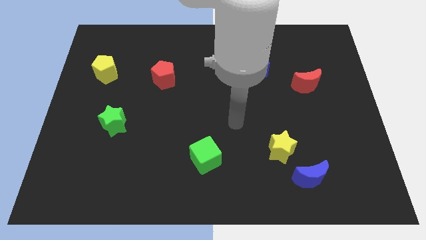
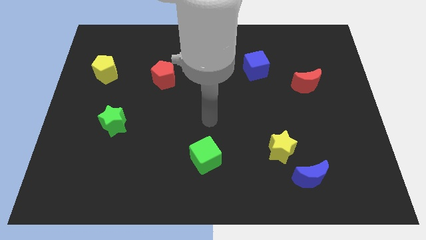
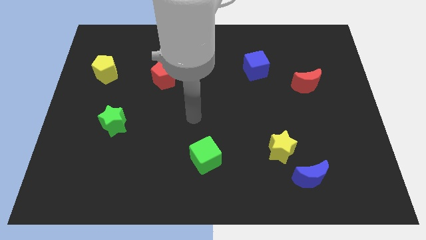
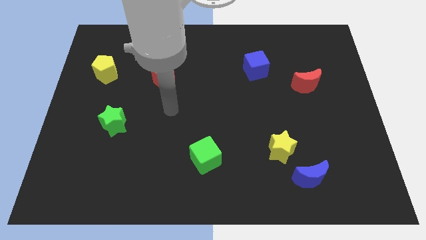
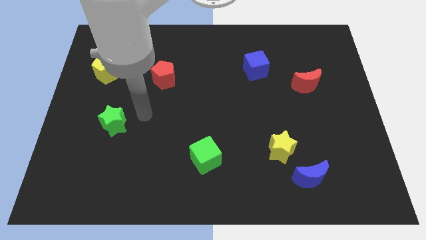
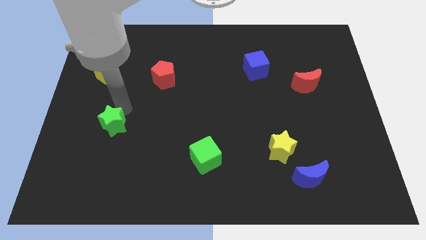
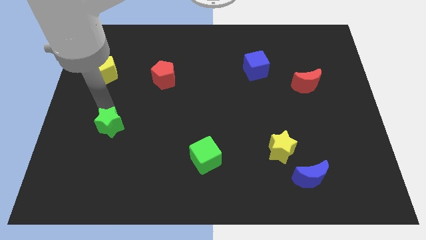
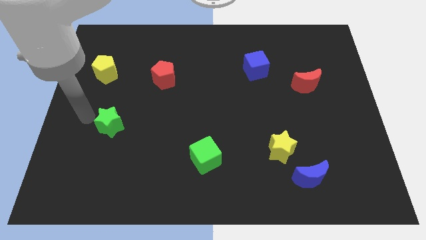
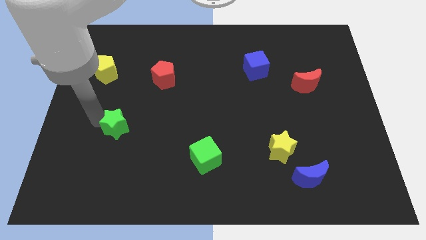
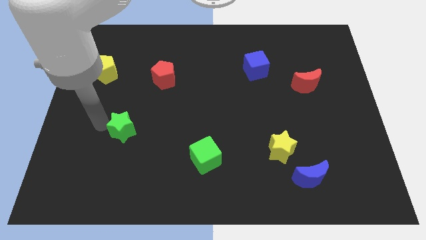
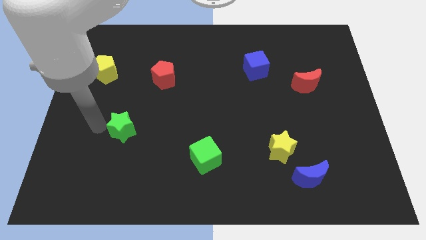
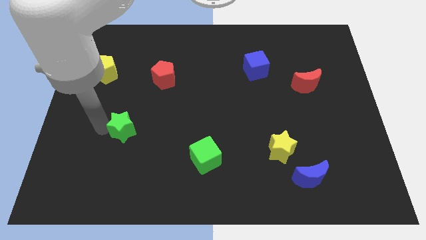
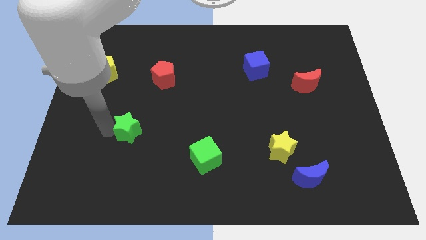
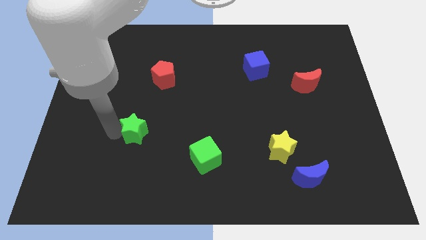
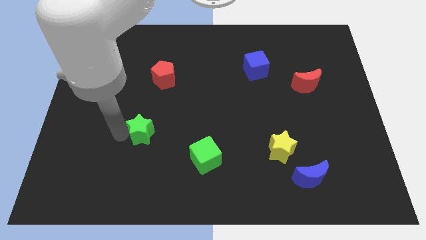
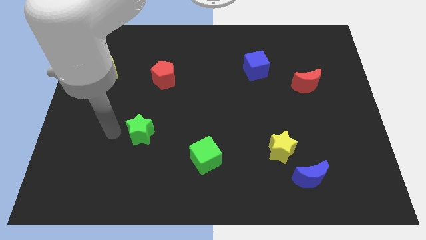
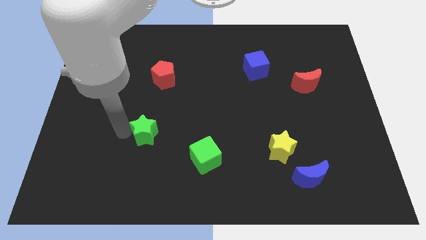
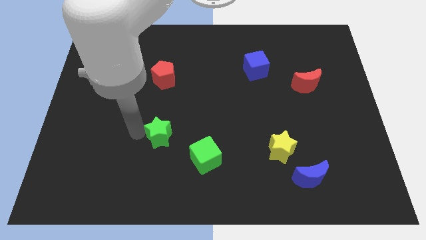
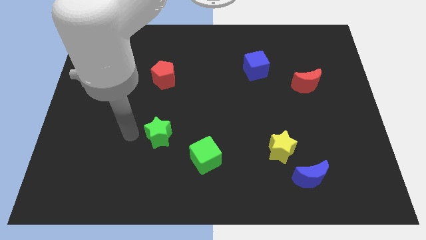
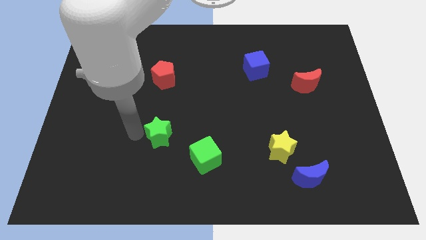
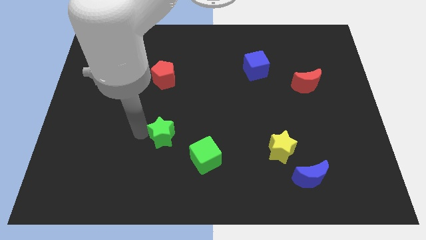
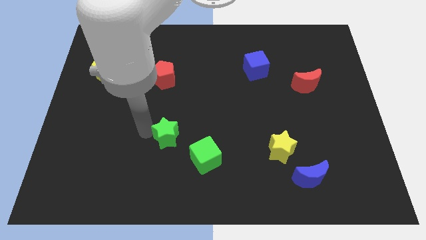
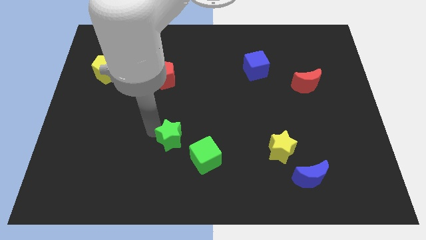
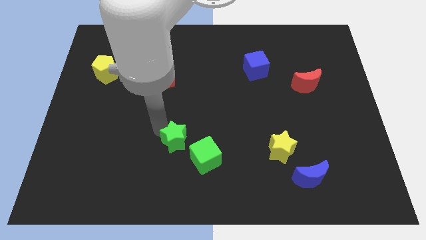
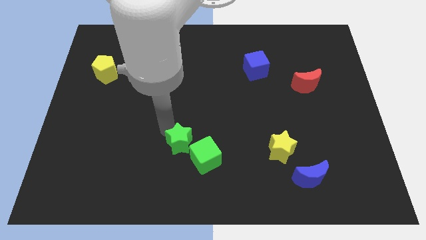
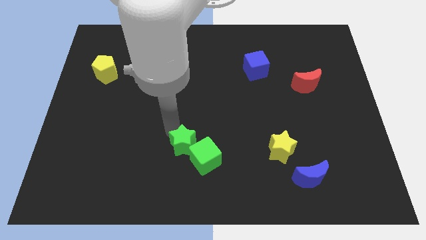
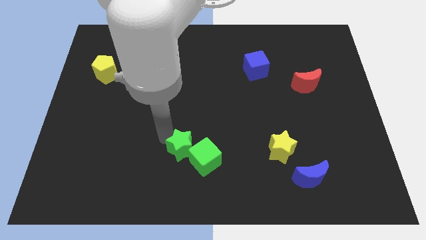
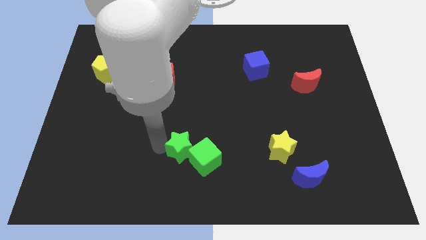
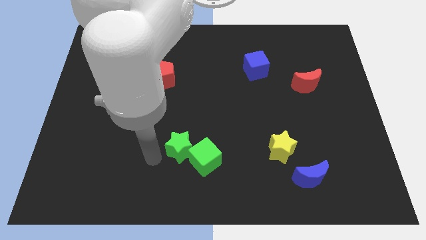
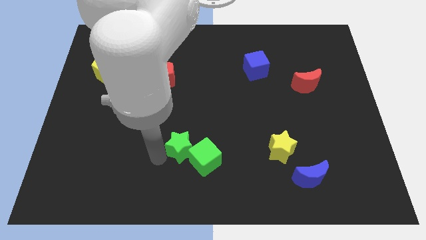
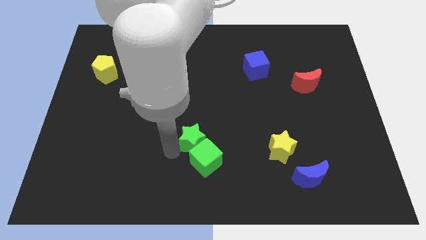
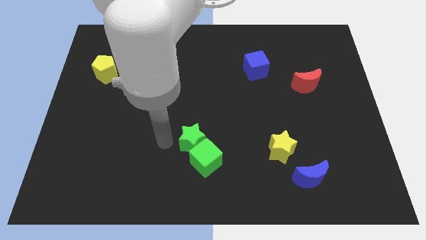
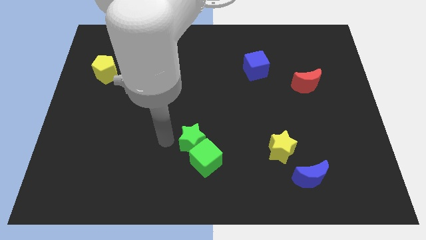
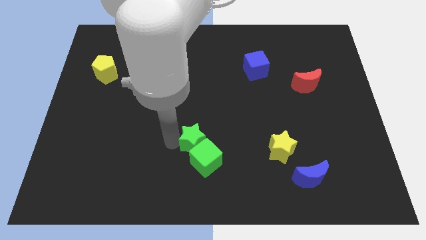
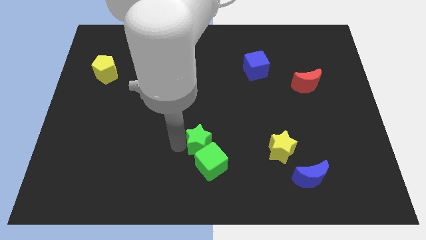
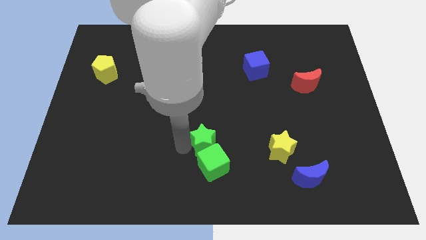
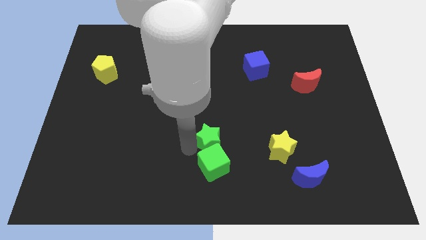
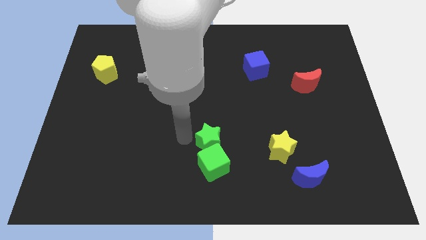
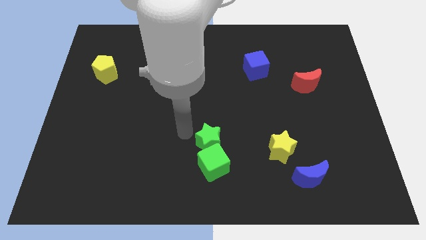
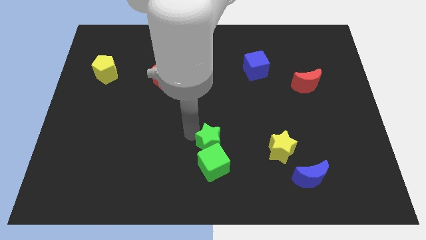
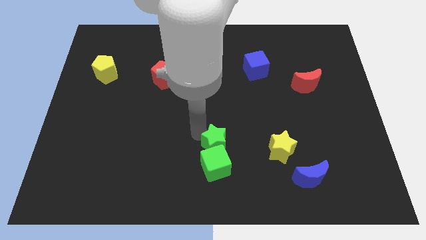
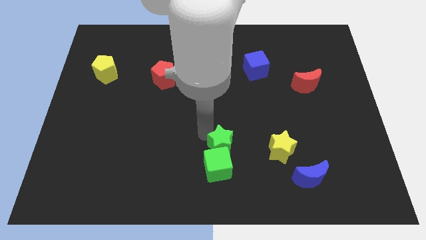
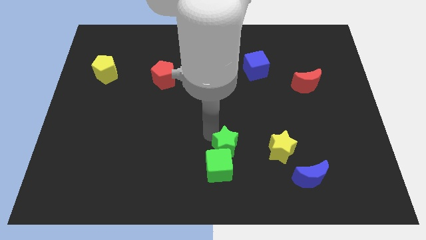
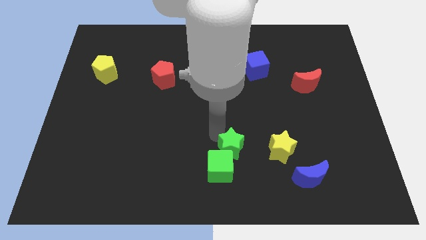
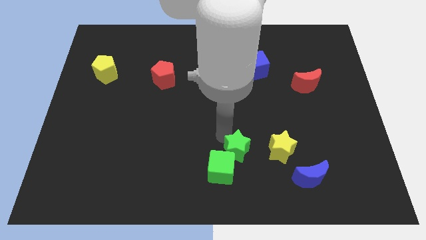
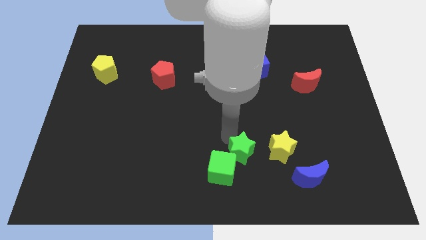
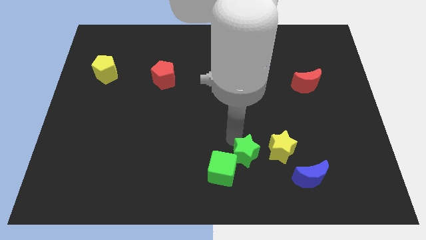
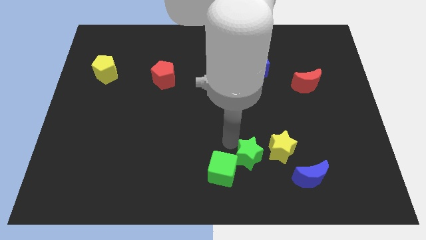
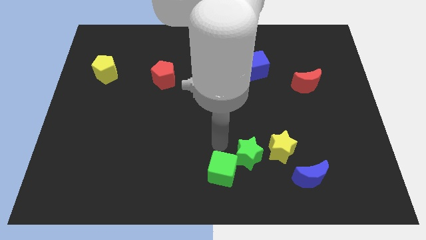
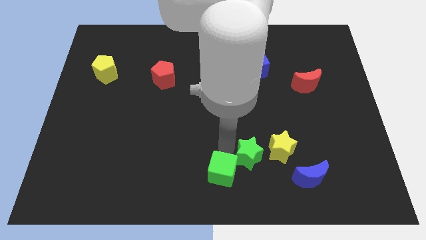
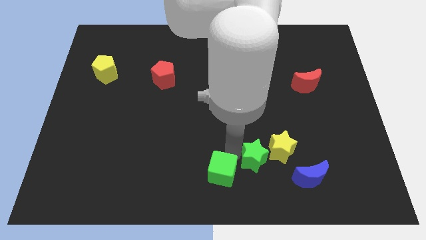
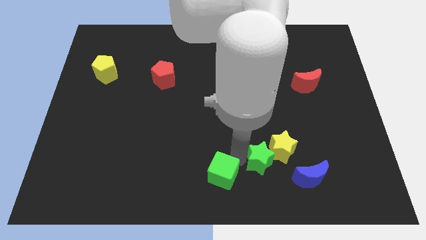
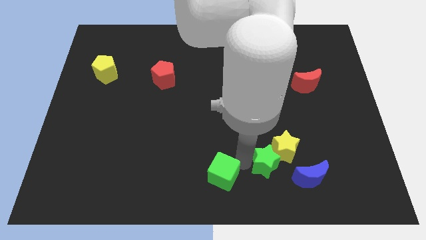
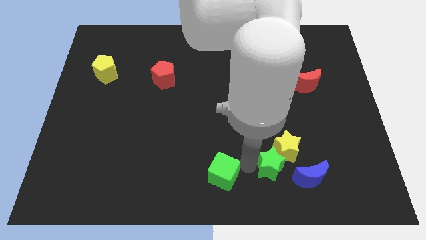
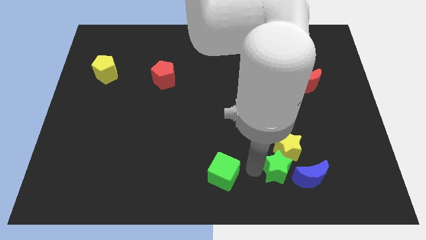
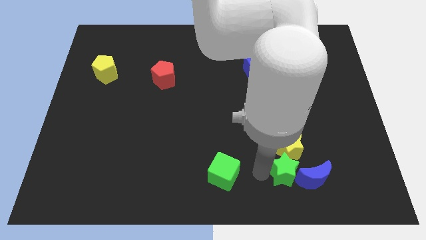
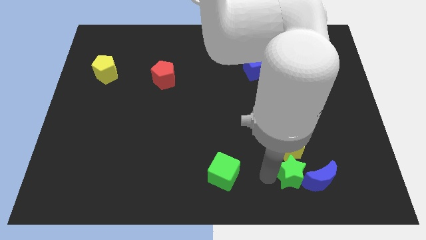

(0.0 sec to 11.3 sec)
slide the green star towards the blue moon

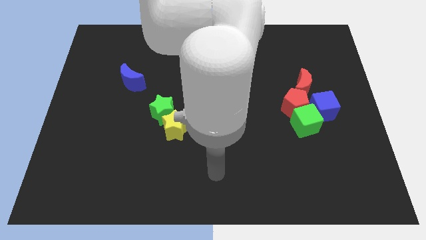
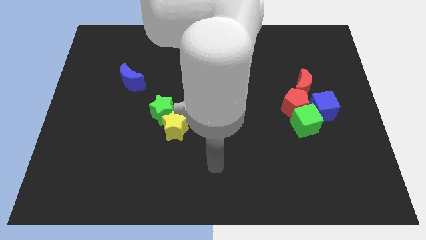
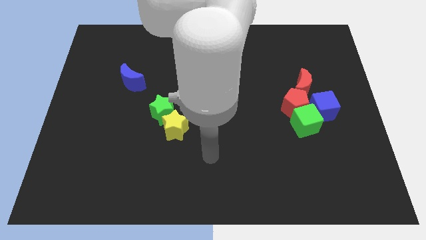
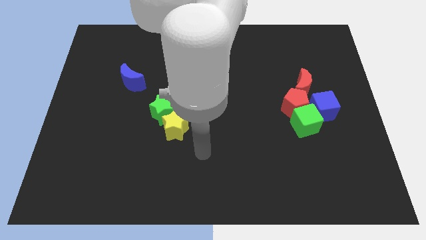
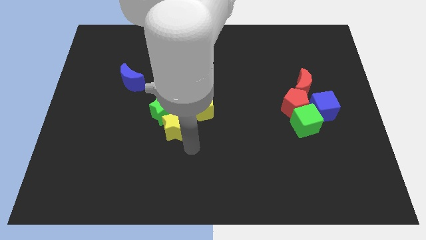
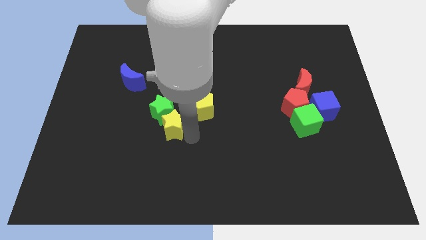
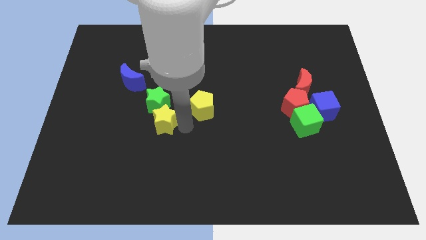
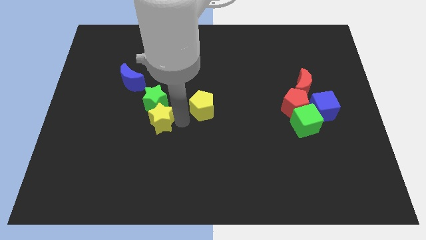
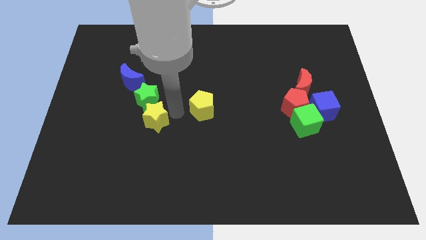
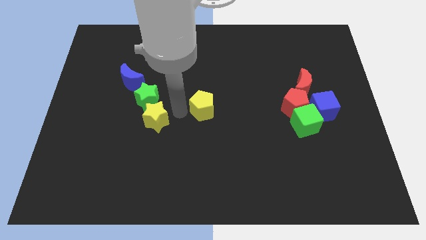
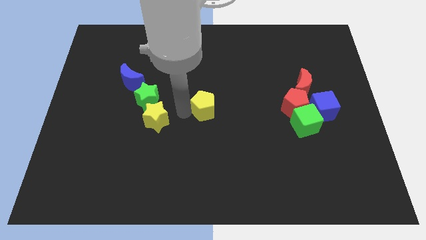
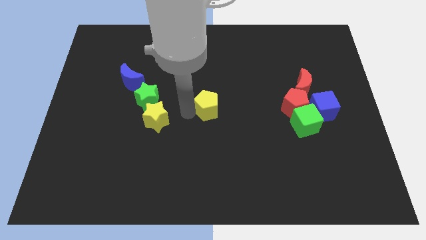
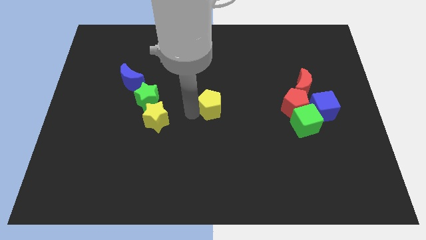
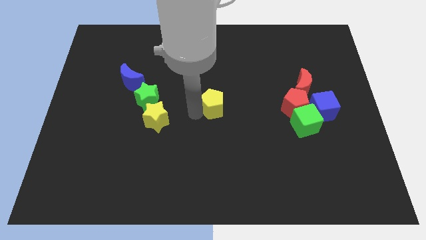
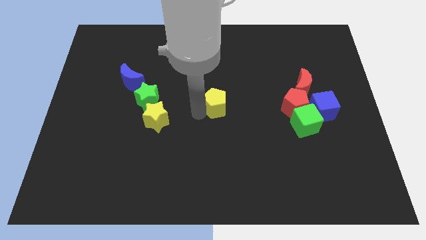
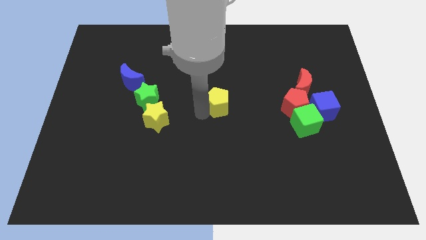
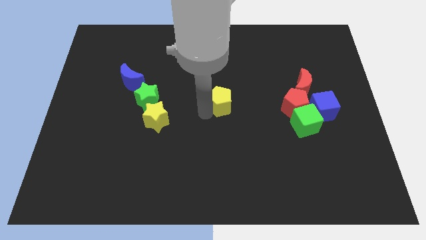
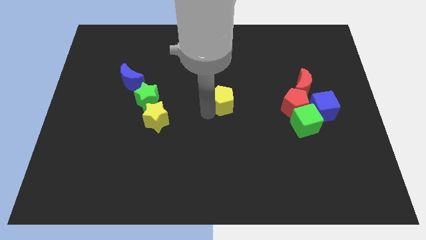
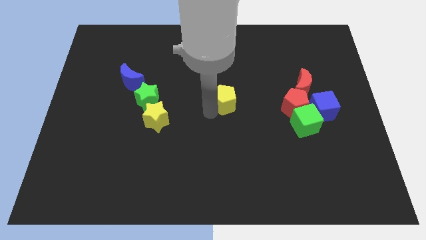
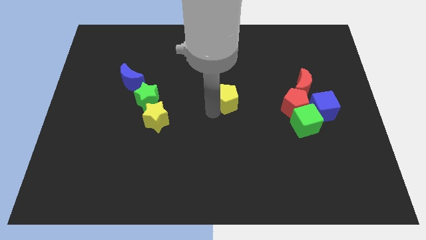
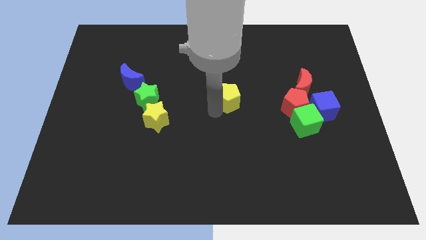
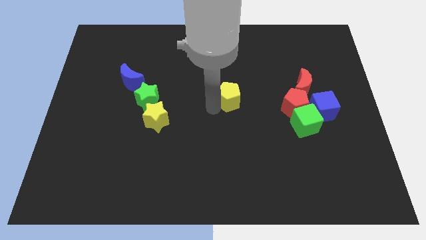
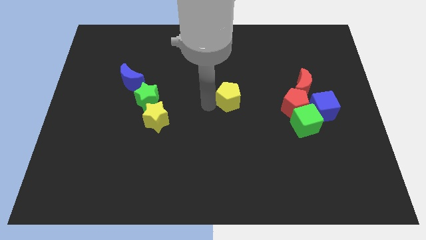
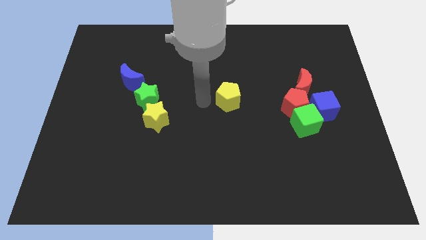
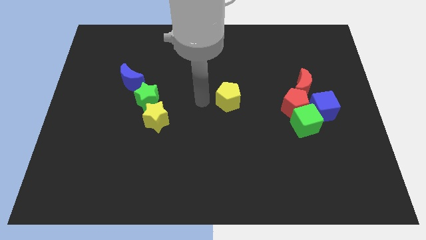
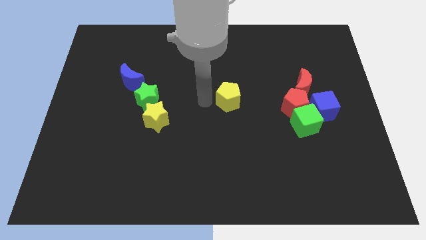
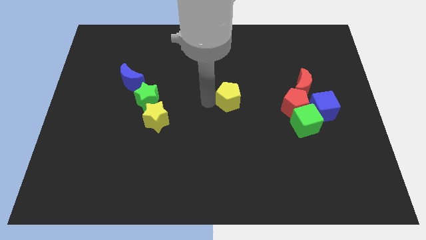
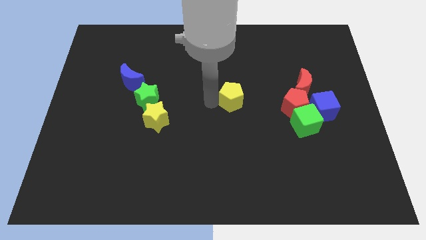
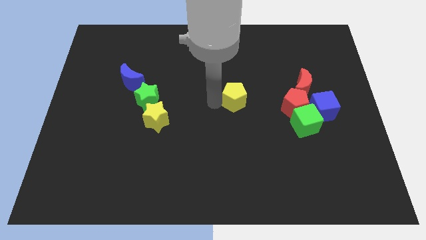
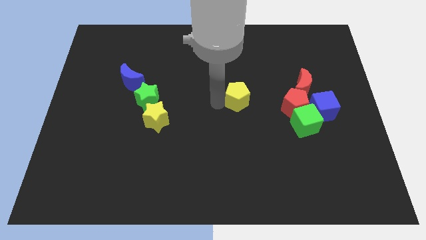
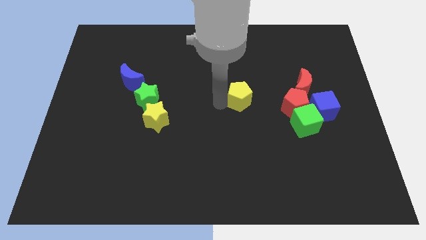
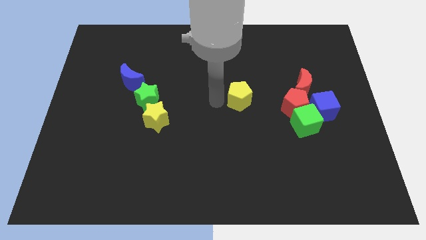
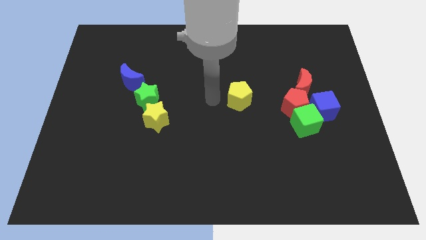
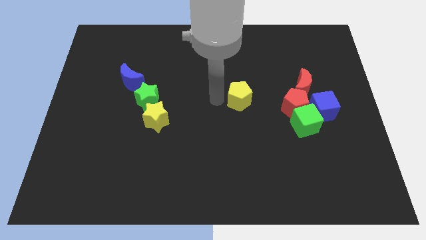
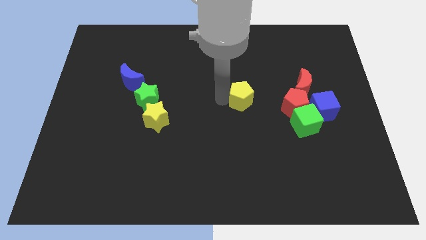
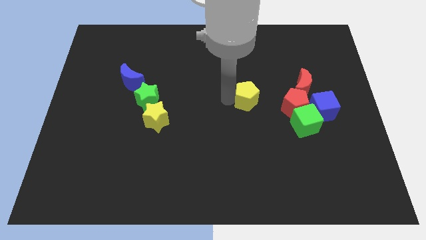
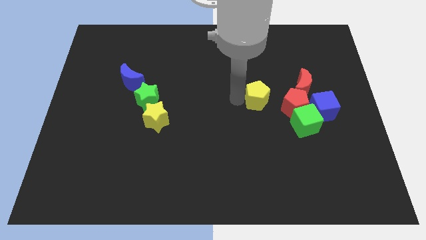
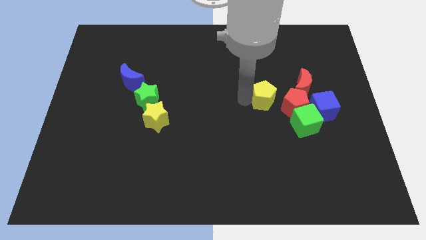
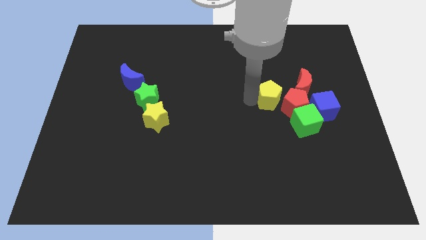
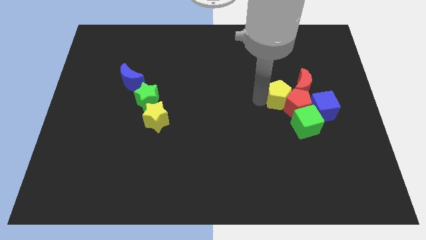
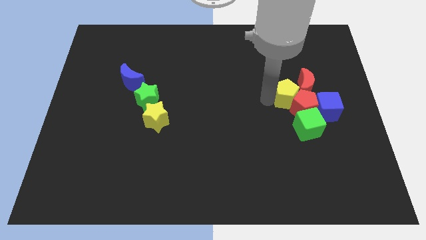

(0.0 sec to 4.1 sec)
push the yellow pentagon to the red moon
